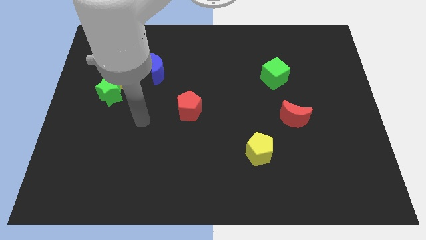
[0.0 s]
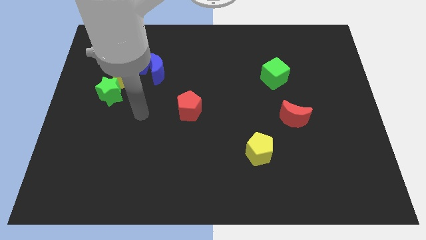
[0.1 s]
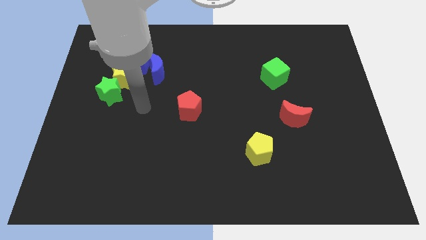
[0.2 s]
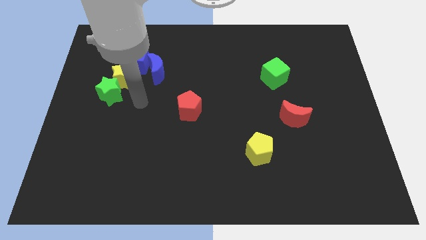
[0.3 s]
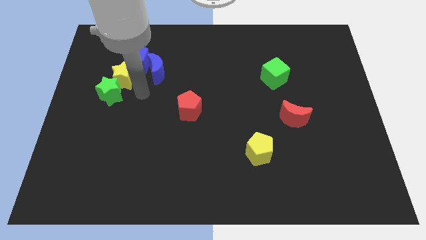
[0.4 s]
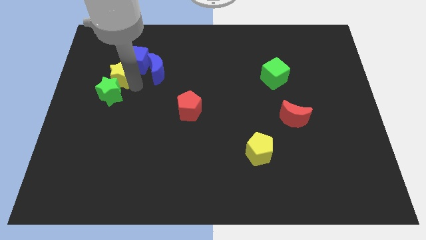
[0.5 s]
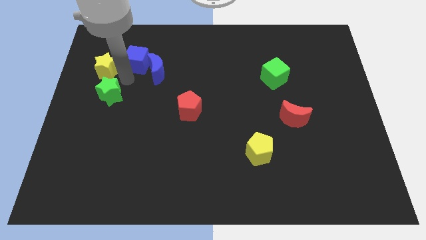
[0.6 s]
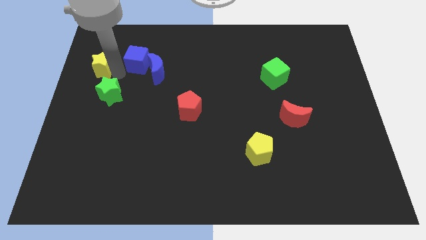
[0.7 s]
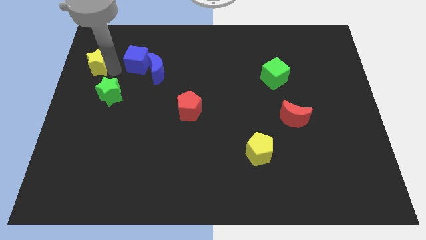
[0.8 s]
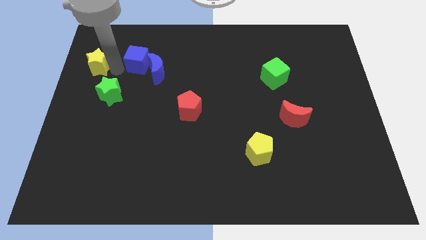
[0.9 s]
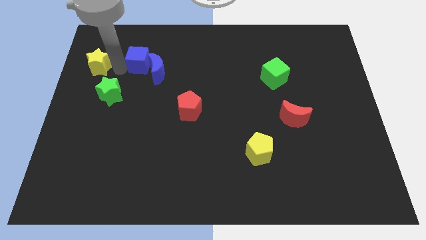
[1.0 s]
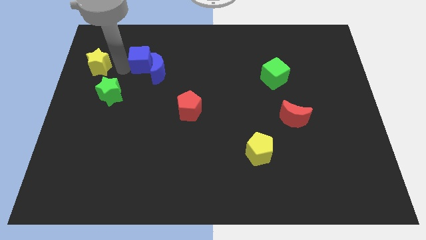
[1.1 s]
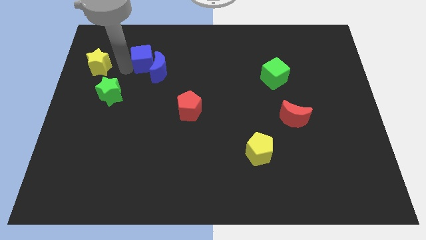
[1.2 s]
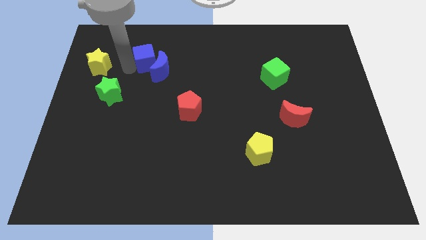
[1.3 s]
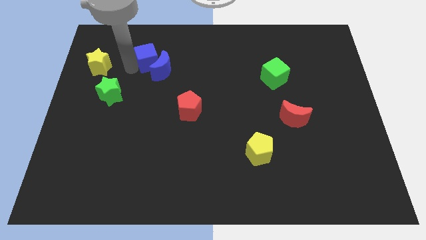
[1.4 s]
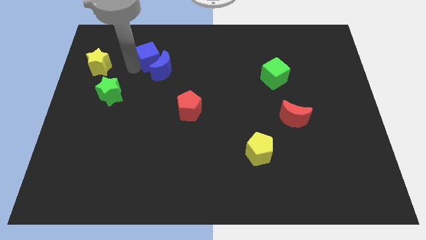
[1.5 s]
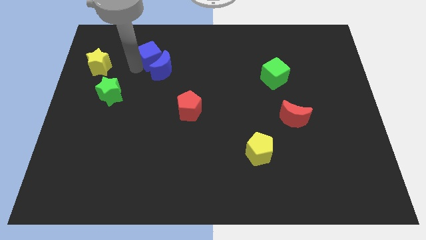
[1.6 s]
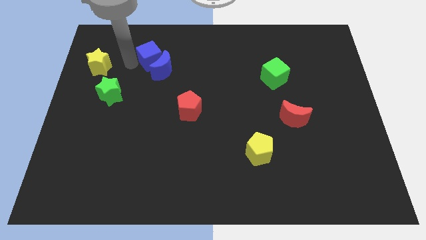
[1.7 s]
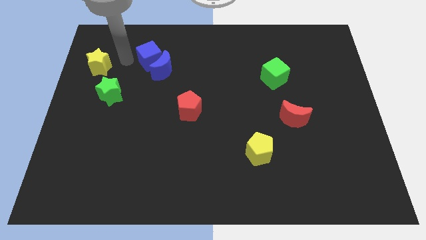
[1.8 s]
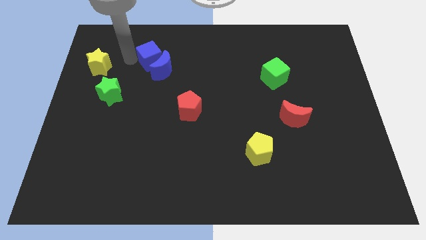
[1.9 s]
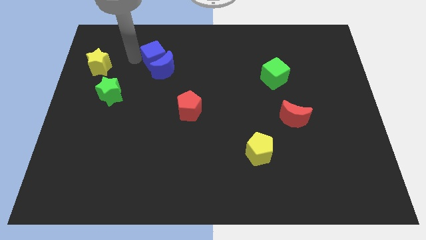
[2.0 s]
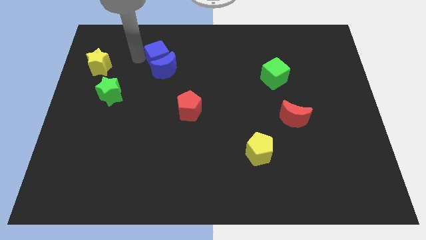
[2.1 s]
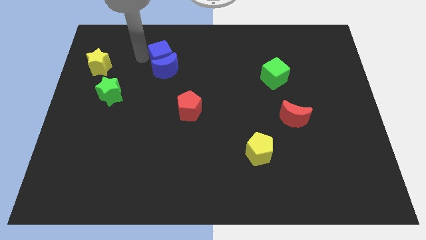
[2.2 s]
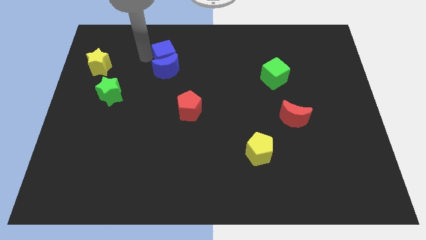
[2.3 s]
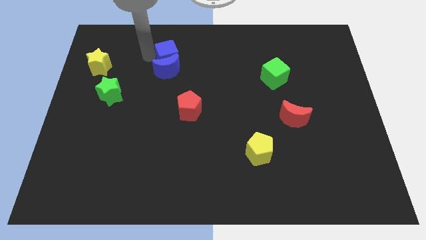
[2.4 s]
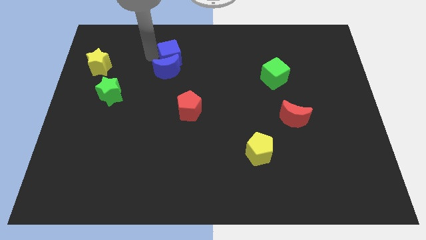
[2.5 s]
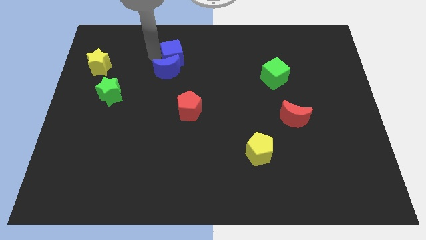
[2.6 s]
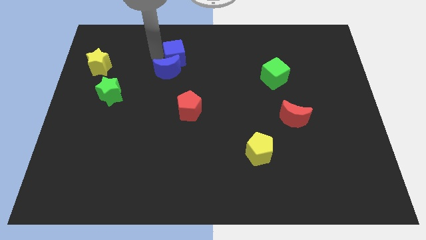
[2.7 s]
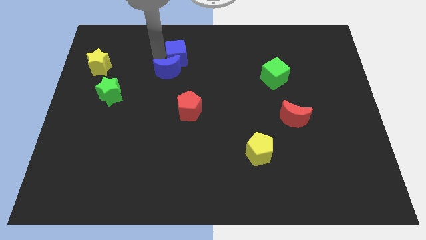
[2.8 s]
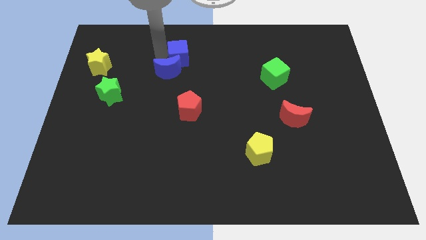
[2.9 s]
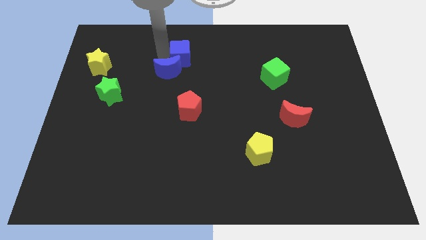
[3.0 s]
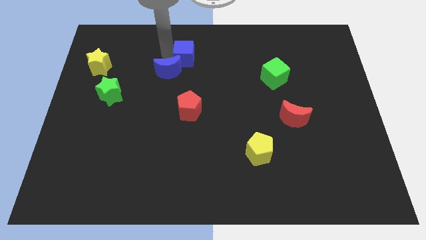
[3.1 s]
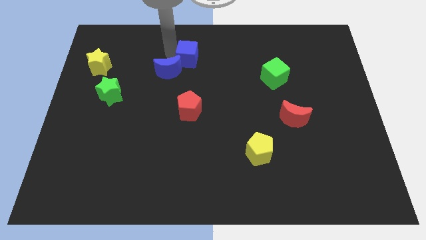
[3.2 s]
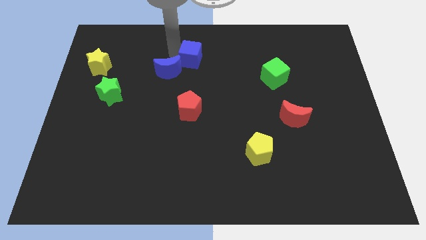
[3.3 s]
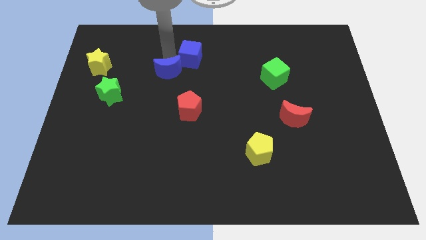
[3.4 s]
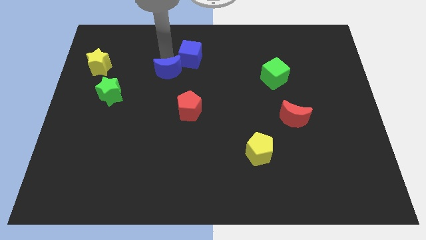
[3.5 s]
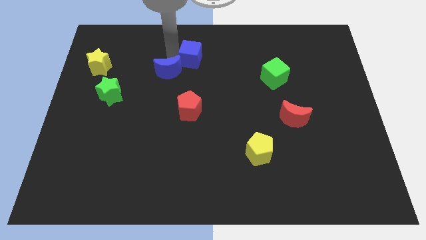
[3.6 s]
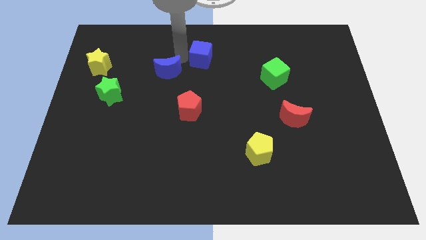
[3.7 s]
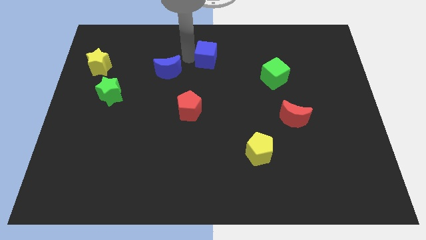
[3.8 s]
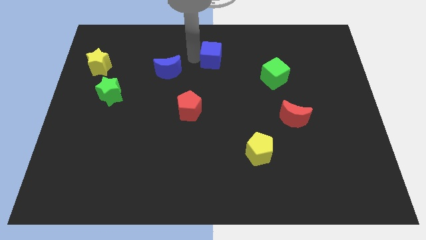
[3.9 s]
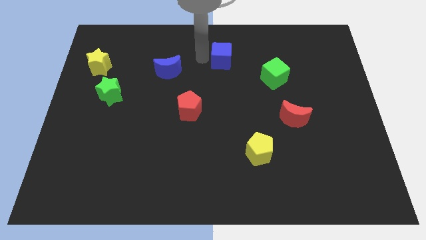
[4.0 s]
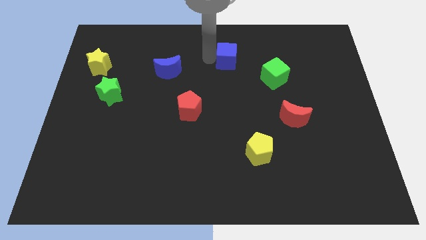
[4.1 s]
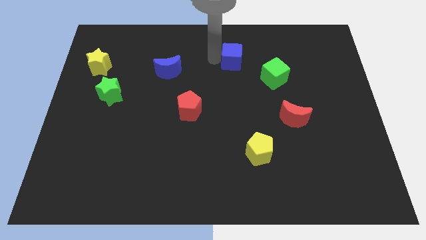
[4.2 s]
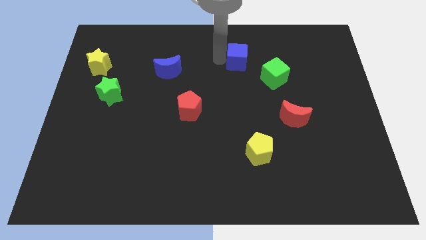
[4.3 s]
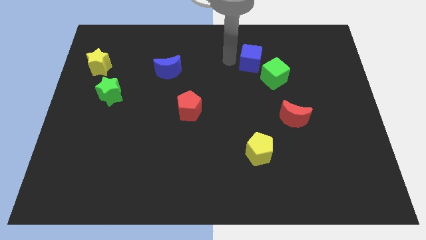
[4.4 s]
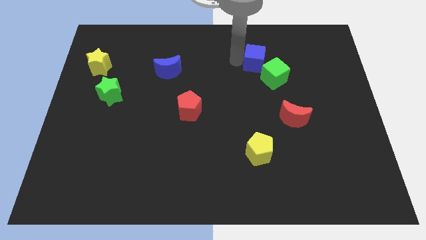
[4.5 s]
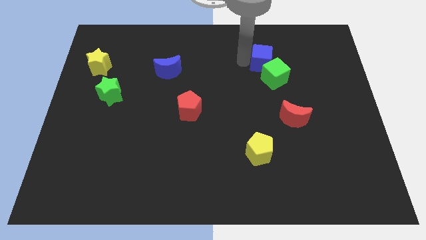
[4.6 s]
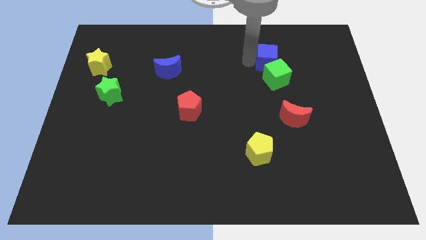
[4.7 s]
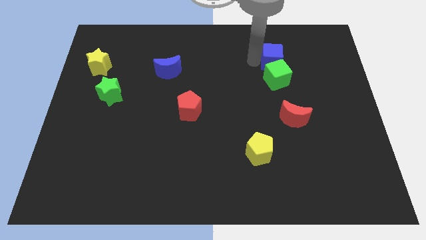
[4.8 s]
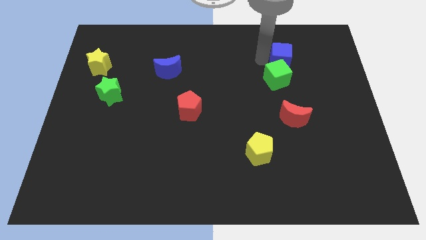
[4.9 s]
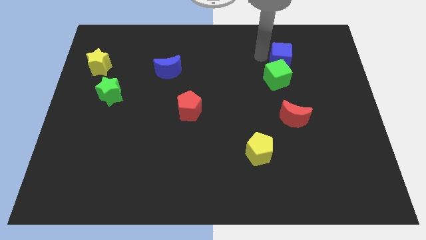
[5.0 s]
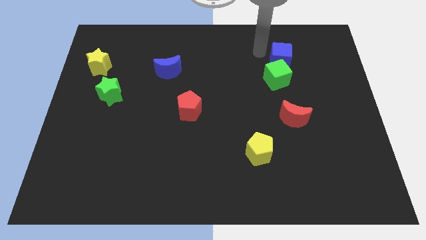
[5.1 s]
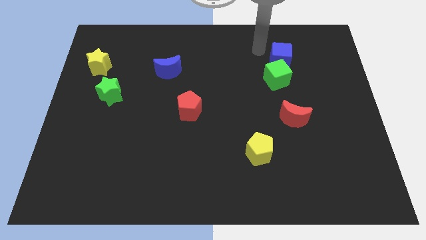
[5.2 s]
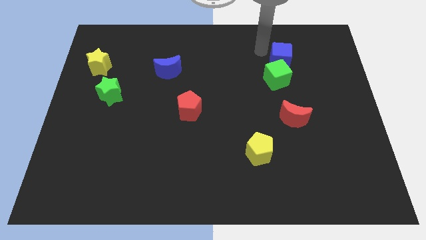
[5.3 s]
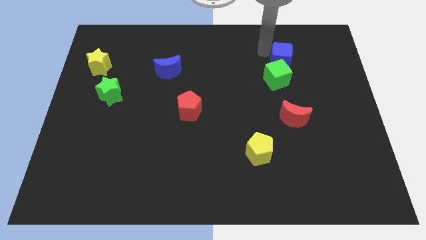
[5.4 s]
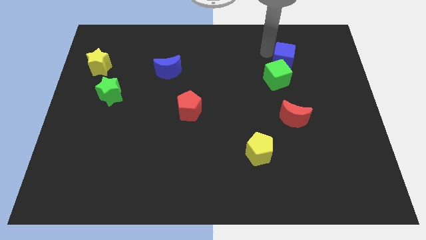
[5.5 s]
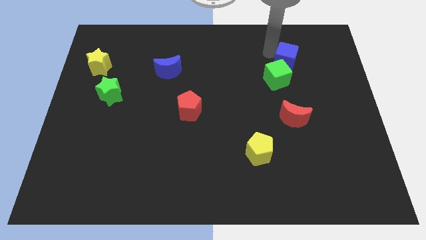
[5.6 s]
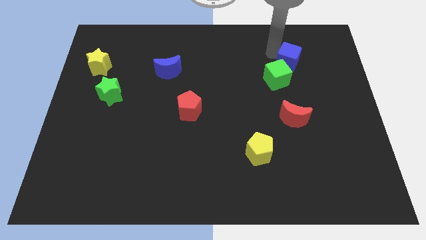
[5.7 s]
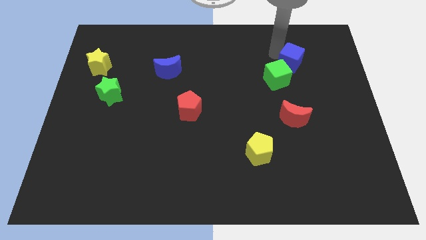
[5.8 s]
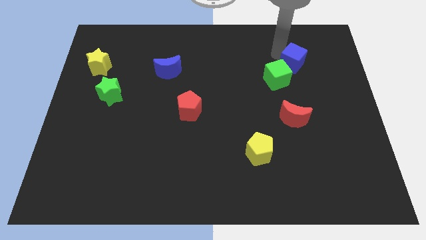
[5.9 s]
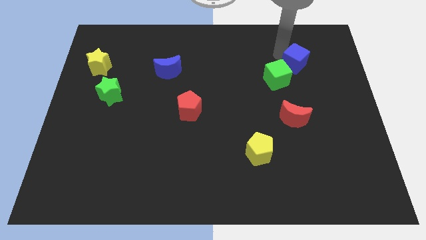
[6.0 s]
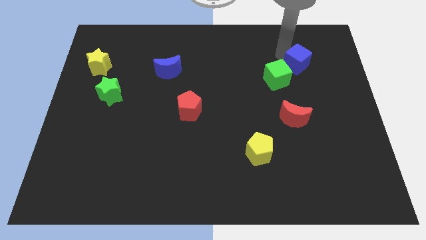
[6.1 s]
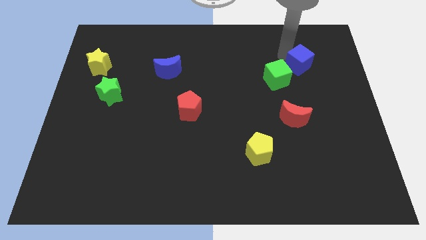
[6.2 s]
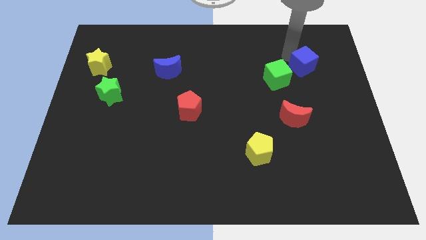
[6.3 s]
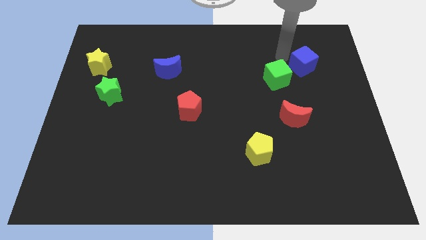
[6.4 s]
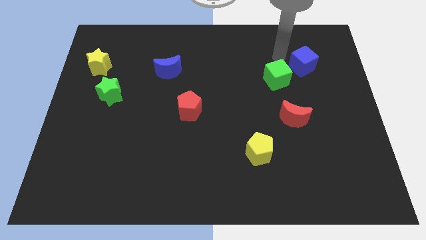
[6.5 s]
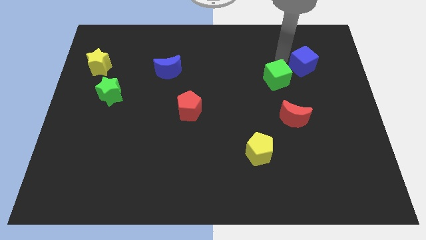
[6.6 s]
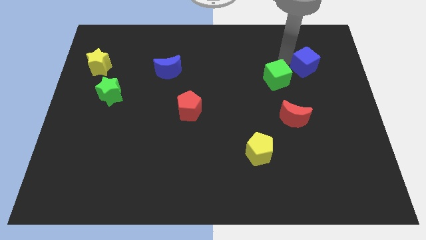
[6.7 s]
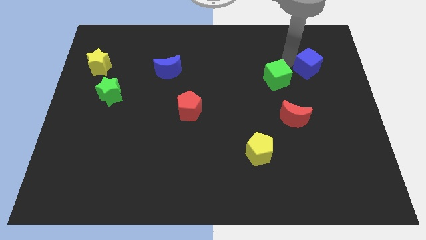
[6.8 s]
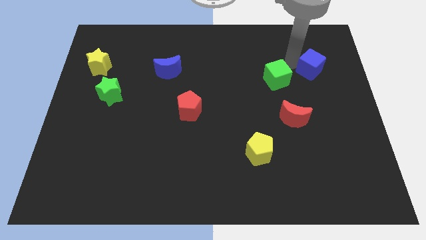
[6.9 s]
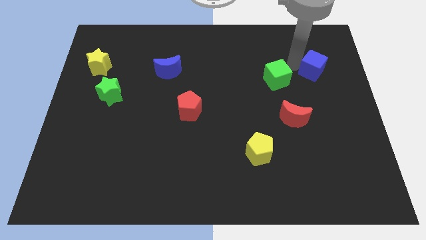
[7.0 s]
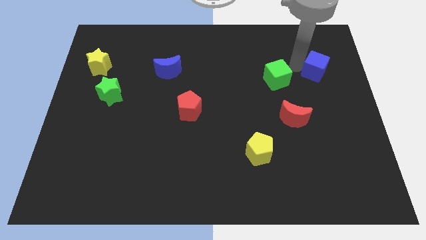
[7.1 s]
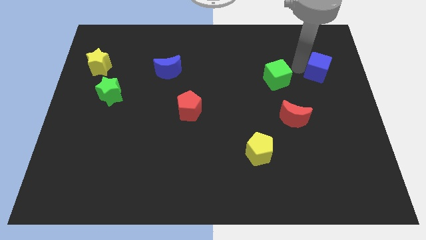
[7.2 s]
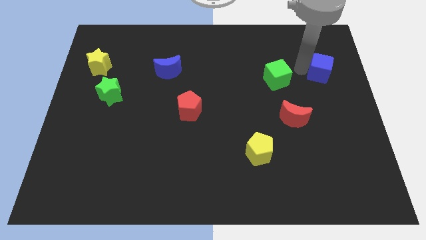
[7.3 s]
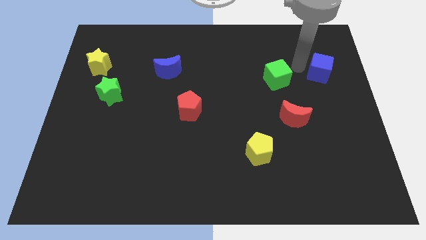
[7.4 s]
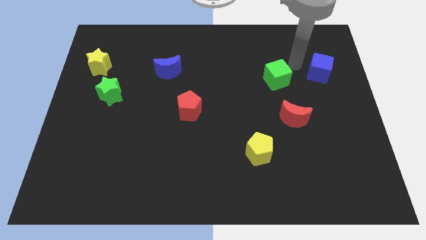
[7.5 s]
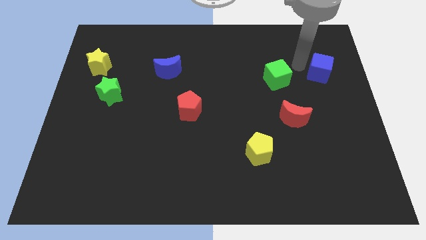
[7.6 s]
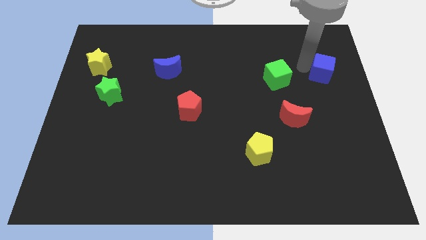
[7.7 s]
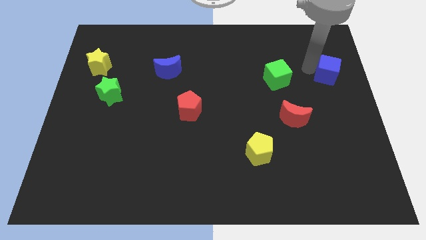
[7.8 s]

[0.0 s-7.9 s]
push the blue cube to the right side of the board
